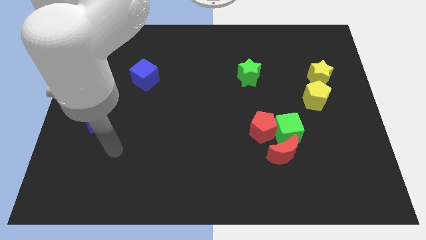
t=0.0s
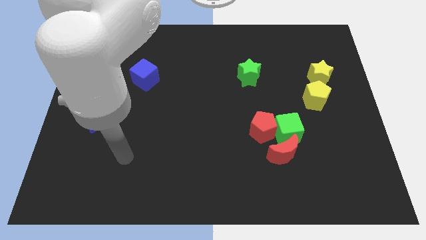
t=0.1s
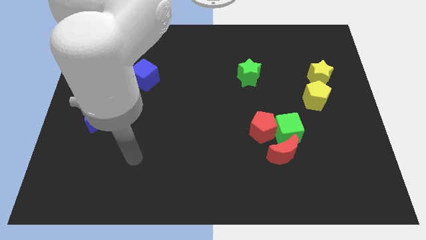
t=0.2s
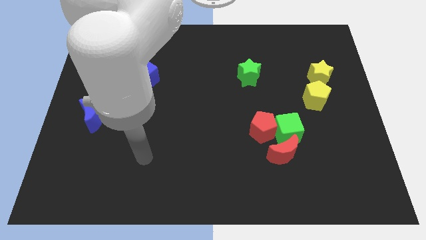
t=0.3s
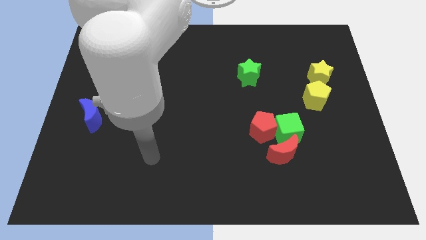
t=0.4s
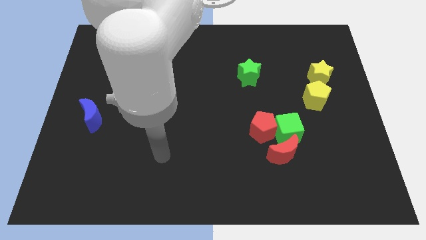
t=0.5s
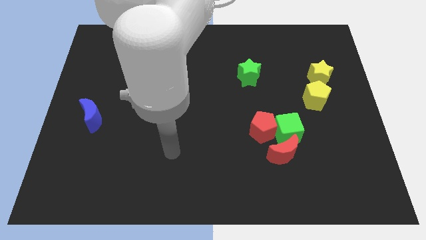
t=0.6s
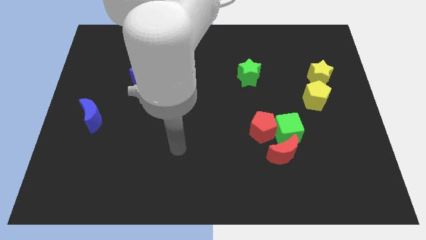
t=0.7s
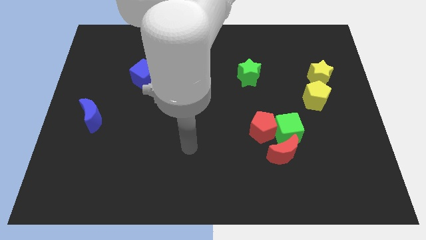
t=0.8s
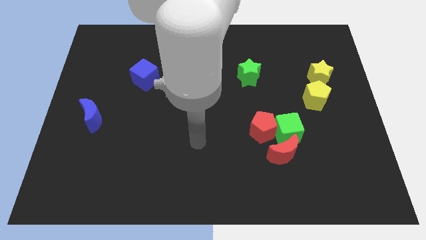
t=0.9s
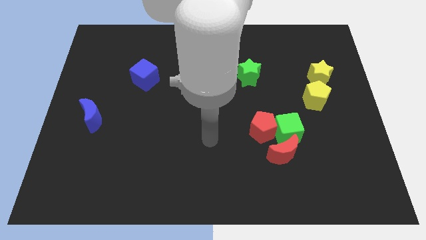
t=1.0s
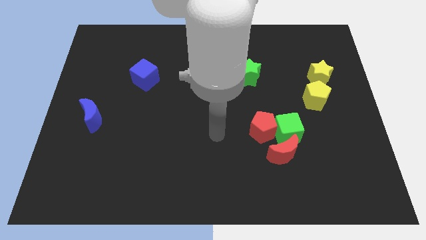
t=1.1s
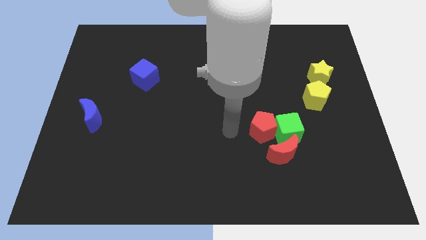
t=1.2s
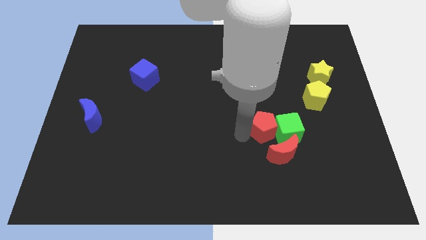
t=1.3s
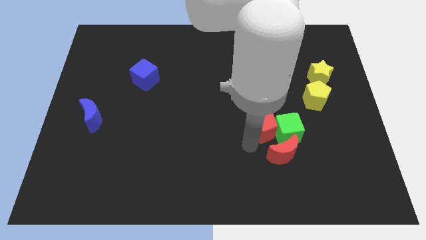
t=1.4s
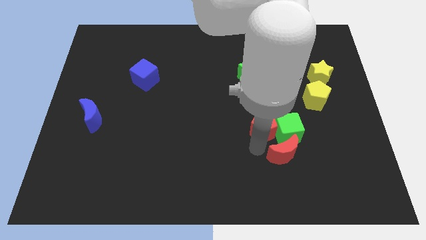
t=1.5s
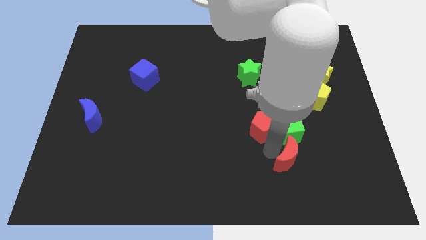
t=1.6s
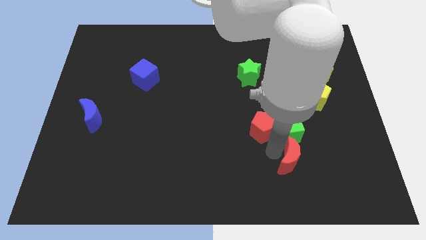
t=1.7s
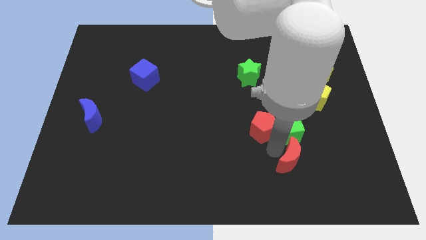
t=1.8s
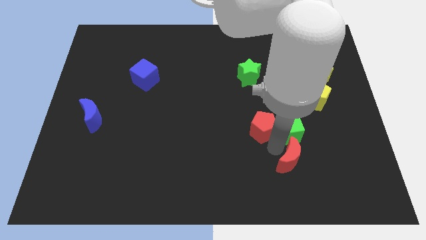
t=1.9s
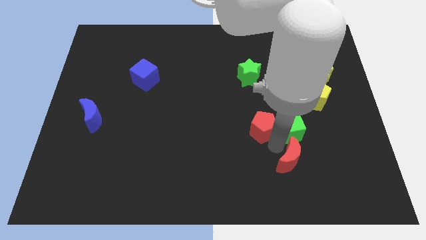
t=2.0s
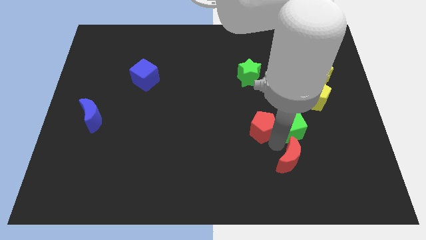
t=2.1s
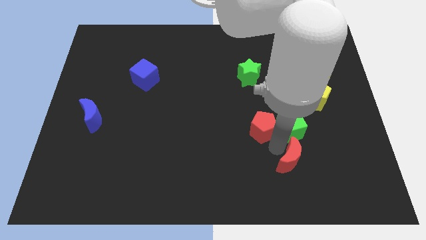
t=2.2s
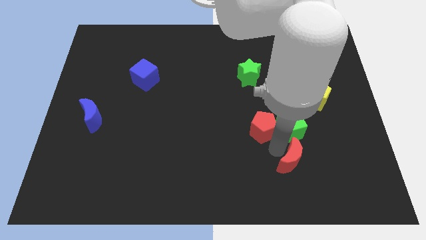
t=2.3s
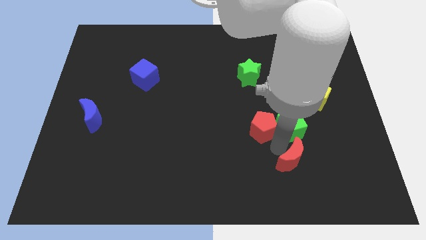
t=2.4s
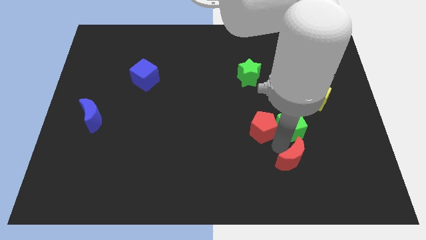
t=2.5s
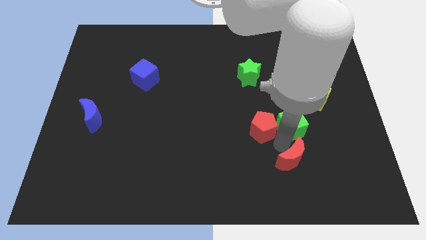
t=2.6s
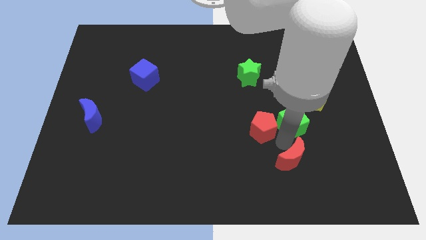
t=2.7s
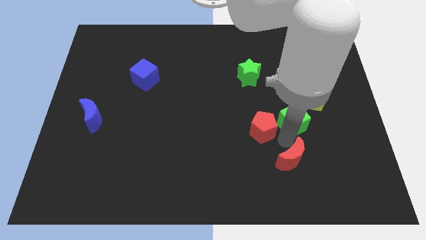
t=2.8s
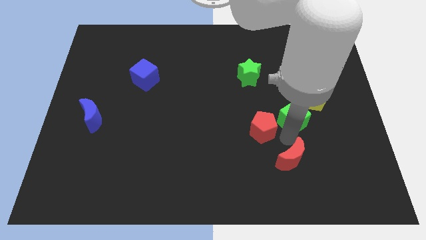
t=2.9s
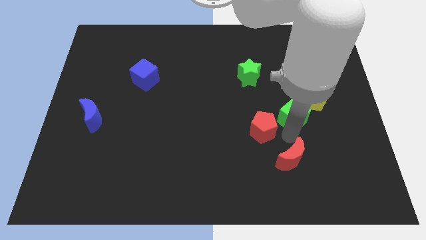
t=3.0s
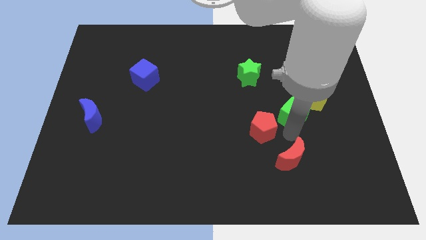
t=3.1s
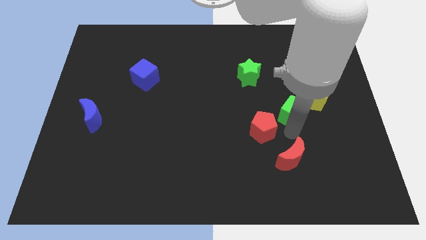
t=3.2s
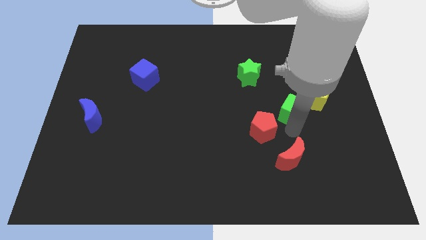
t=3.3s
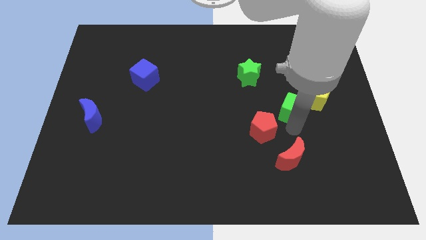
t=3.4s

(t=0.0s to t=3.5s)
move the green cube away from the red pentagon and red moon

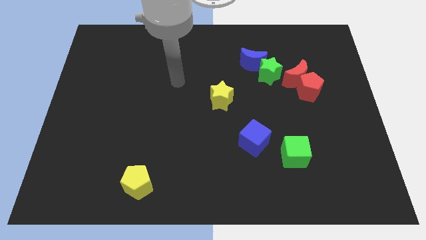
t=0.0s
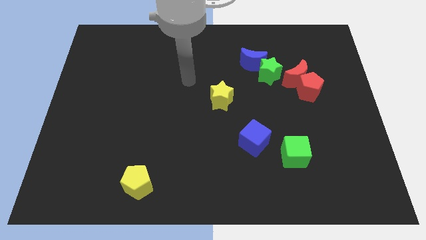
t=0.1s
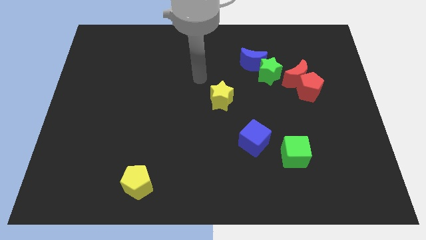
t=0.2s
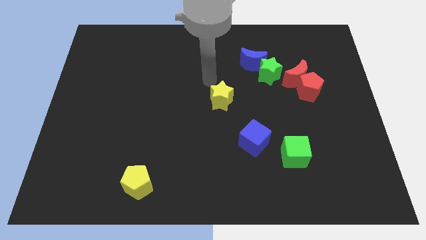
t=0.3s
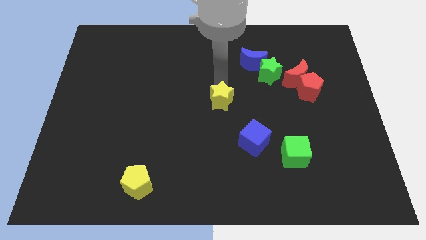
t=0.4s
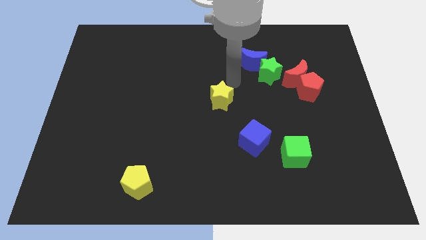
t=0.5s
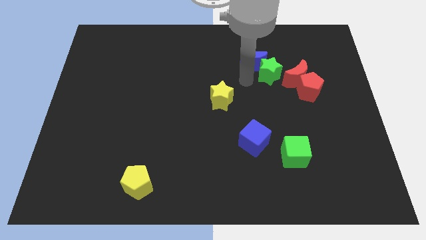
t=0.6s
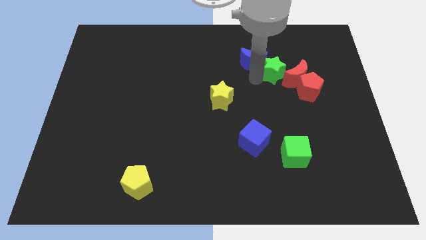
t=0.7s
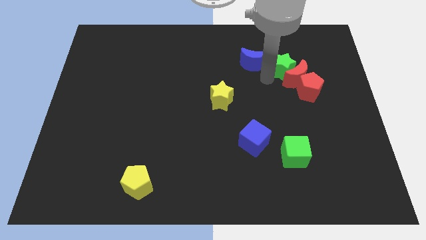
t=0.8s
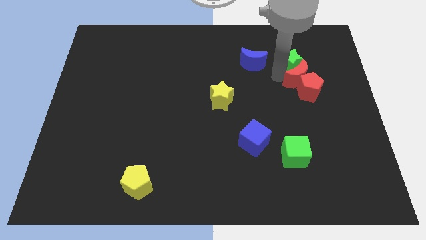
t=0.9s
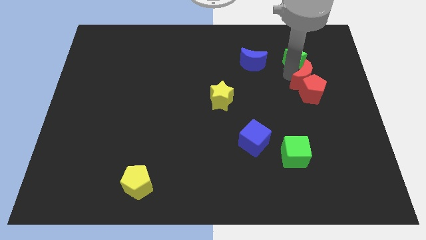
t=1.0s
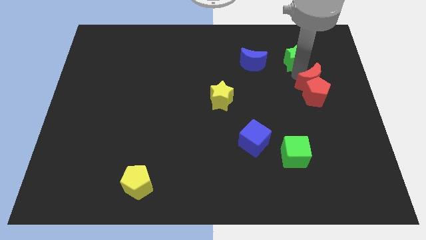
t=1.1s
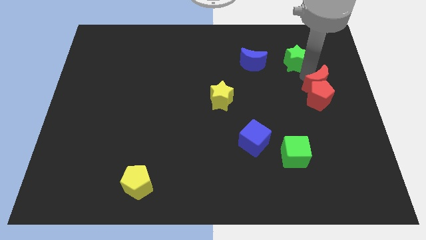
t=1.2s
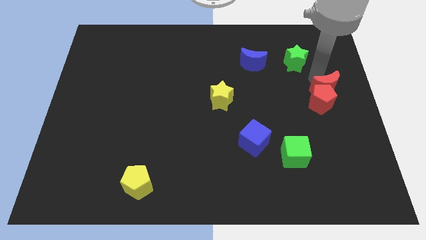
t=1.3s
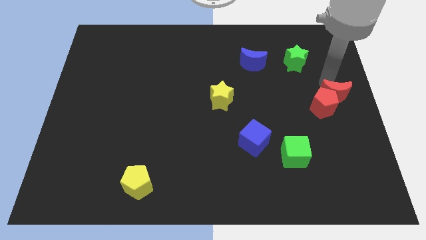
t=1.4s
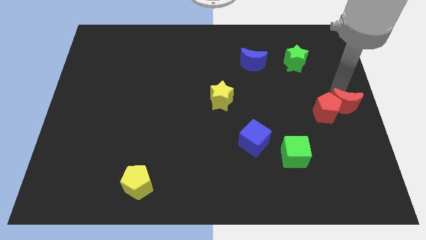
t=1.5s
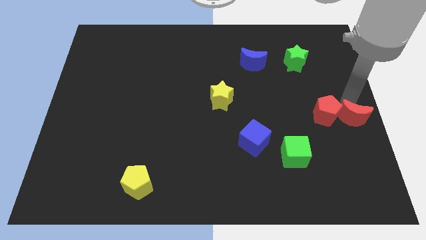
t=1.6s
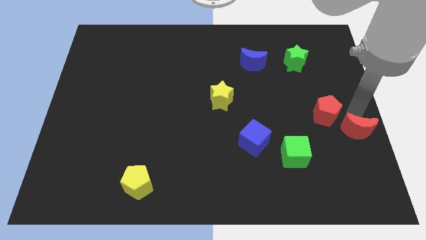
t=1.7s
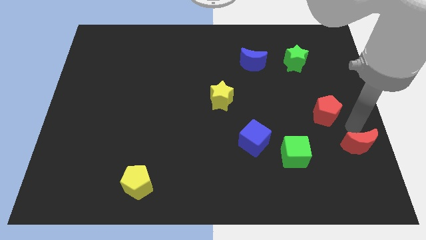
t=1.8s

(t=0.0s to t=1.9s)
separate the red pentagon from the red moon

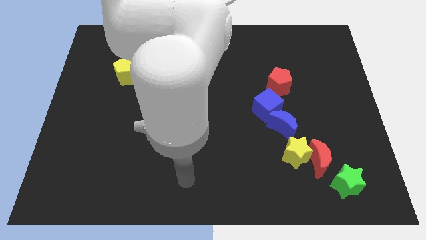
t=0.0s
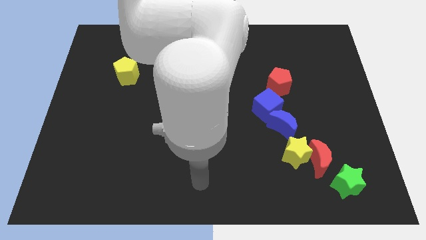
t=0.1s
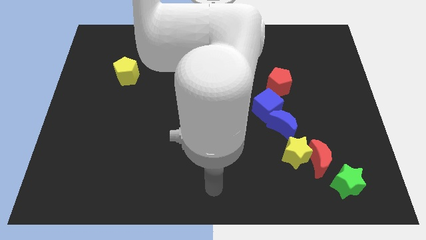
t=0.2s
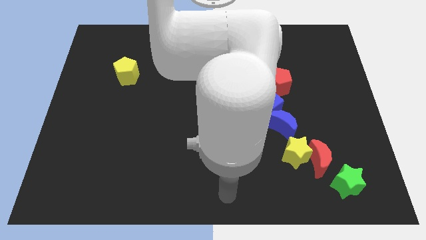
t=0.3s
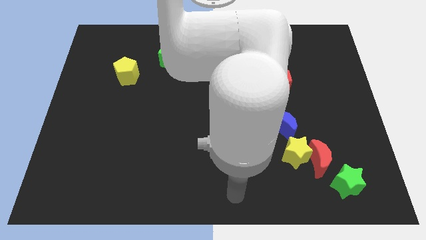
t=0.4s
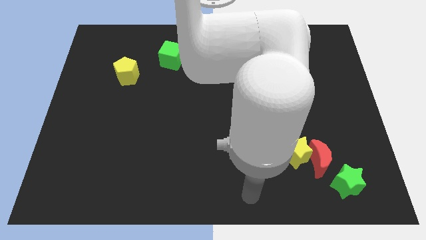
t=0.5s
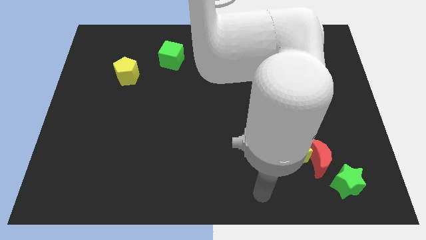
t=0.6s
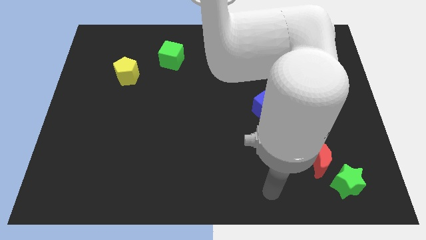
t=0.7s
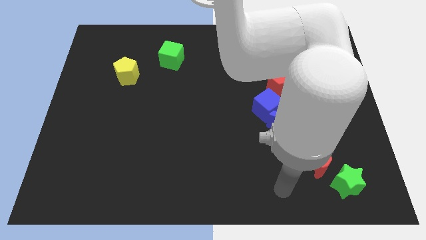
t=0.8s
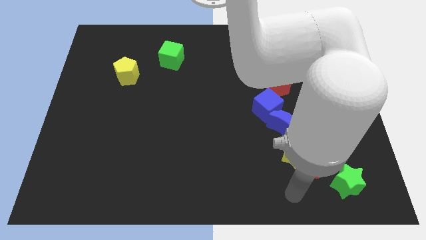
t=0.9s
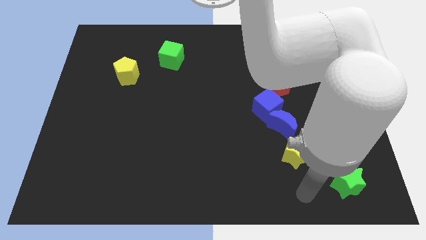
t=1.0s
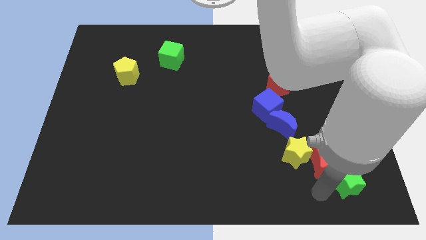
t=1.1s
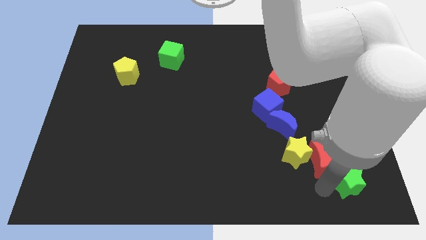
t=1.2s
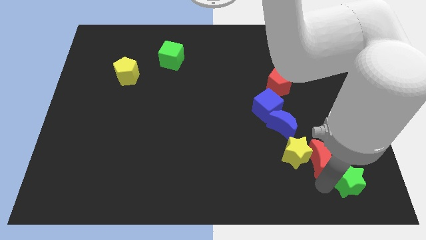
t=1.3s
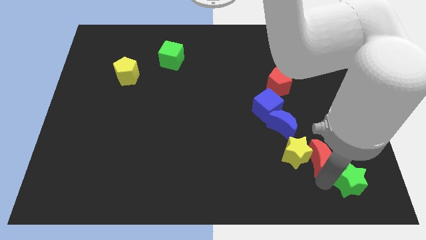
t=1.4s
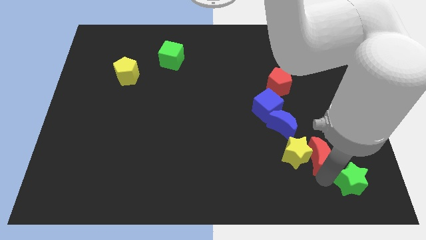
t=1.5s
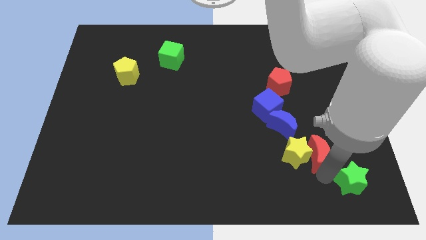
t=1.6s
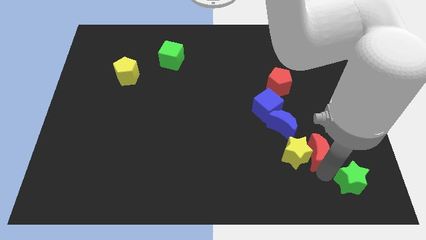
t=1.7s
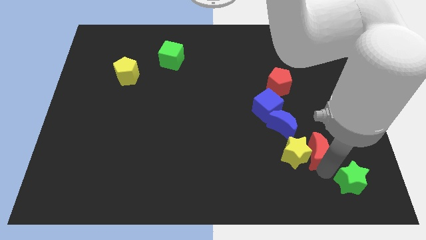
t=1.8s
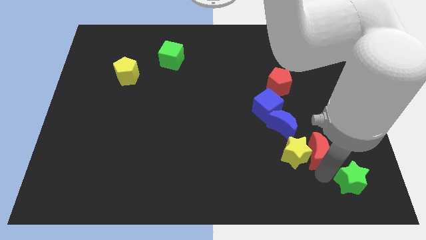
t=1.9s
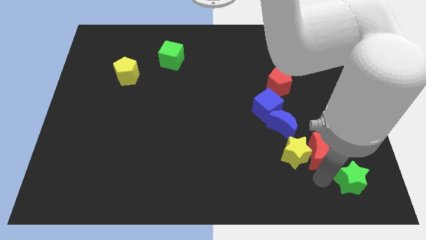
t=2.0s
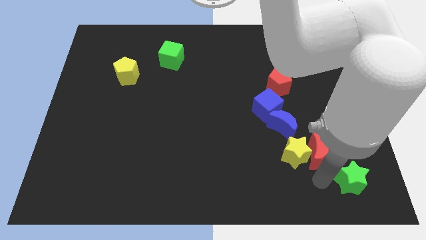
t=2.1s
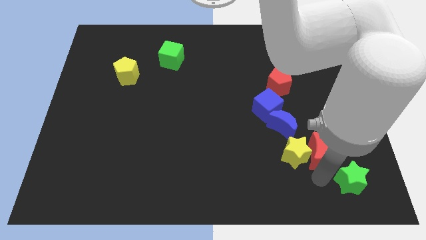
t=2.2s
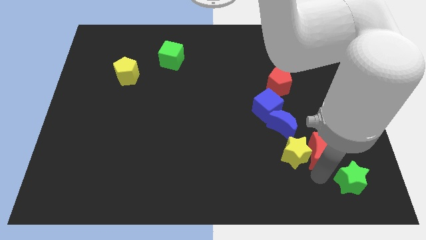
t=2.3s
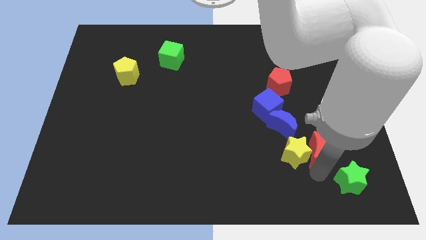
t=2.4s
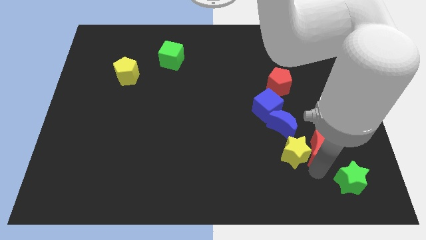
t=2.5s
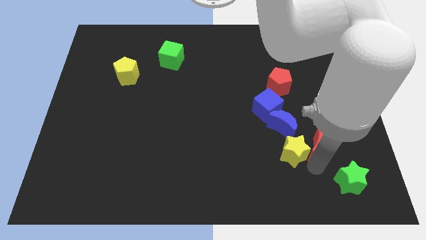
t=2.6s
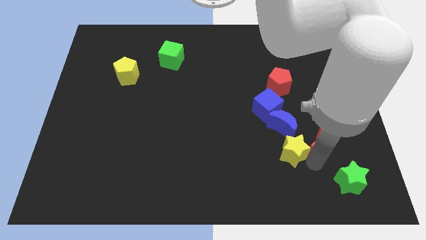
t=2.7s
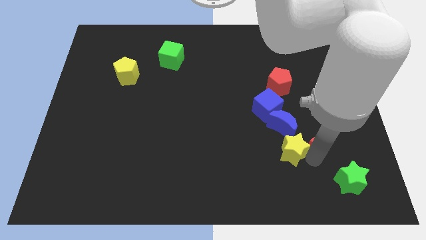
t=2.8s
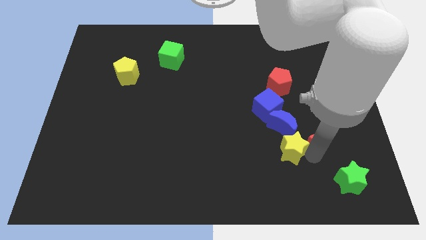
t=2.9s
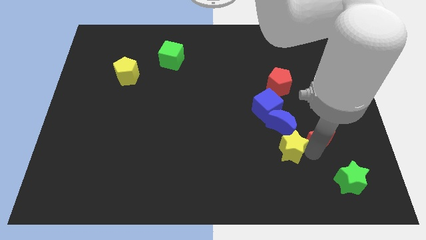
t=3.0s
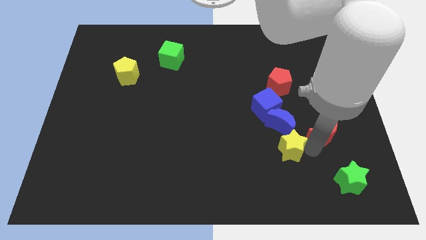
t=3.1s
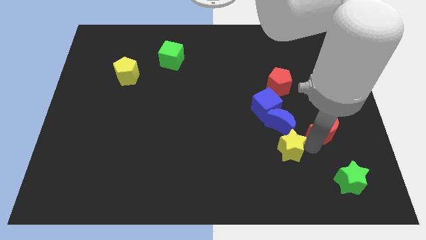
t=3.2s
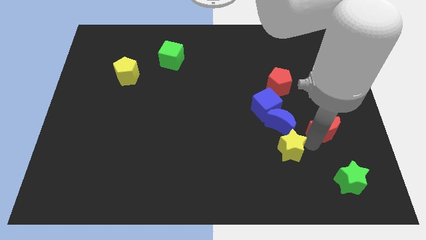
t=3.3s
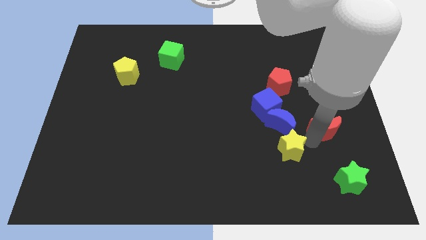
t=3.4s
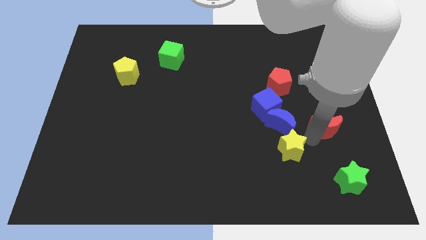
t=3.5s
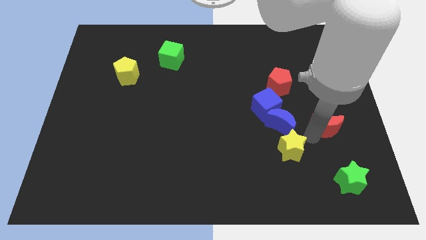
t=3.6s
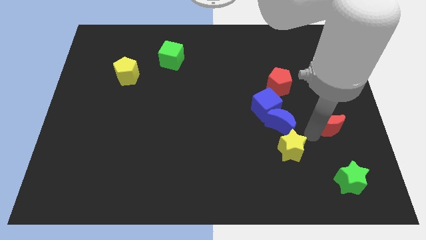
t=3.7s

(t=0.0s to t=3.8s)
move the red moon away from the yellow star and green star

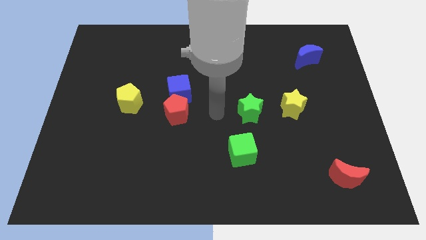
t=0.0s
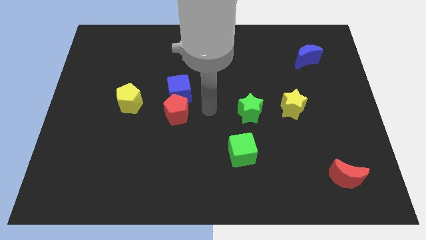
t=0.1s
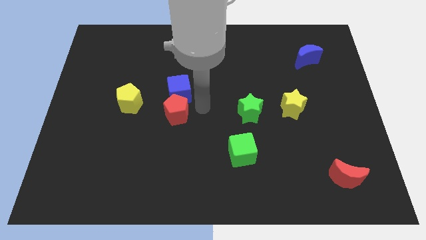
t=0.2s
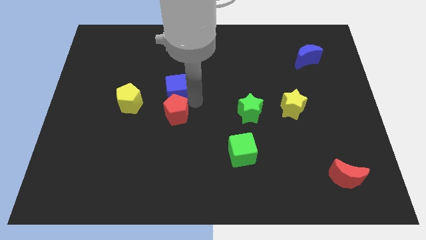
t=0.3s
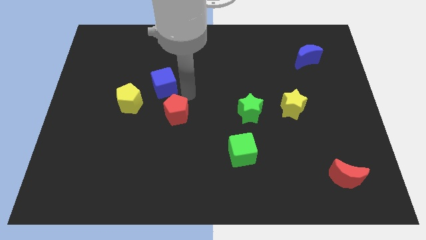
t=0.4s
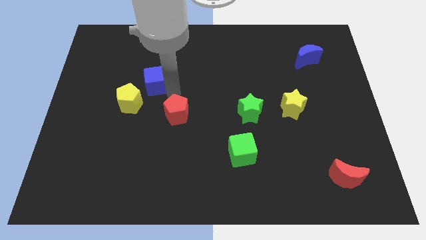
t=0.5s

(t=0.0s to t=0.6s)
separate the red pentagon from the blue cube
